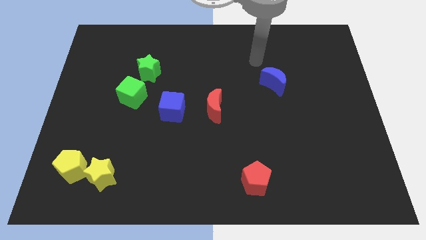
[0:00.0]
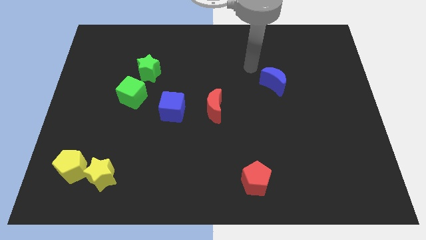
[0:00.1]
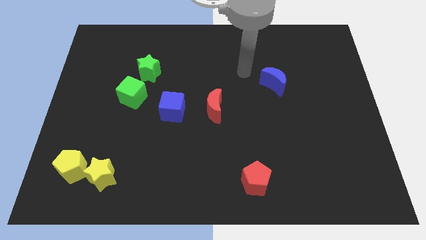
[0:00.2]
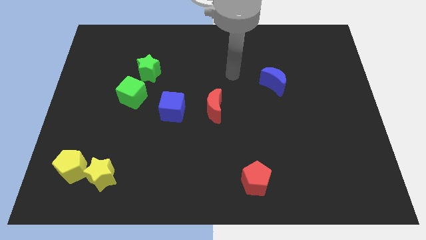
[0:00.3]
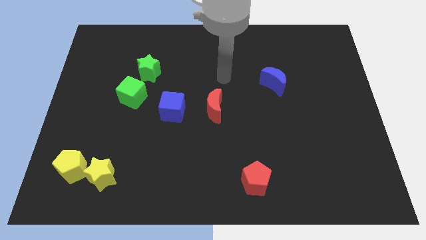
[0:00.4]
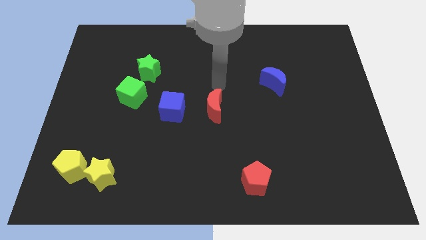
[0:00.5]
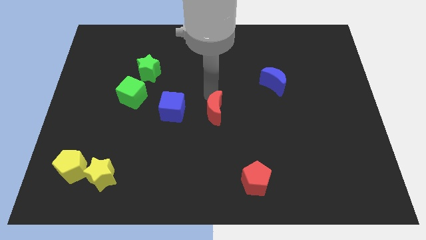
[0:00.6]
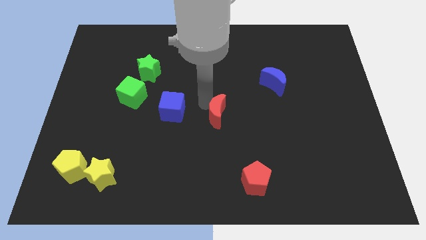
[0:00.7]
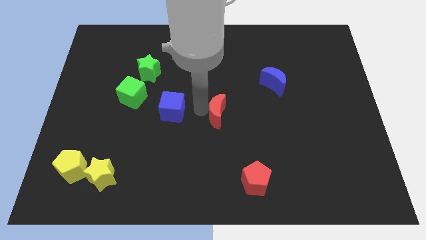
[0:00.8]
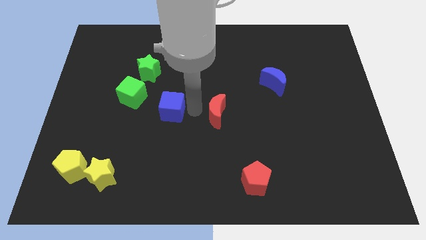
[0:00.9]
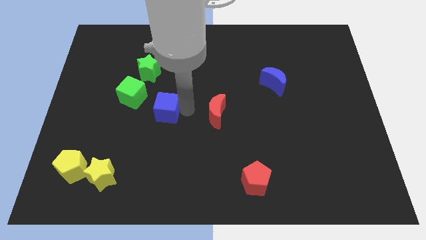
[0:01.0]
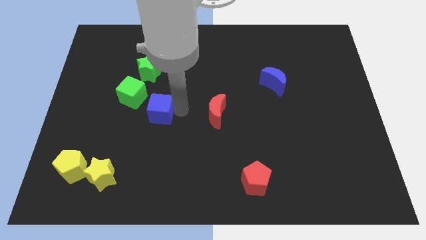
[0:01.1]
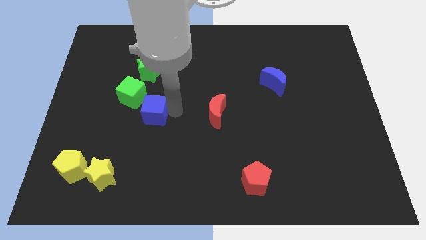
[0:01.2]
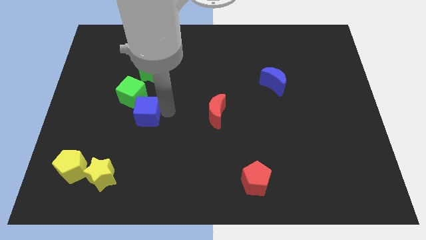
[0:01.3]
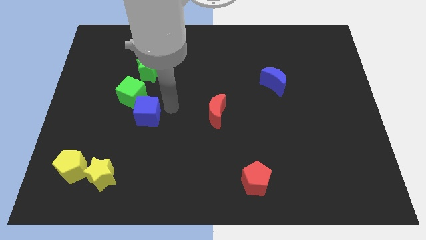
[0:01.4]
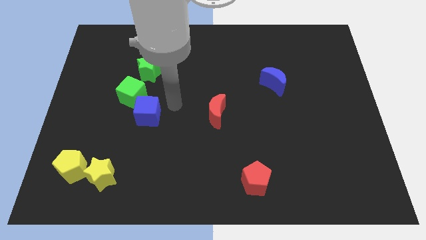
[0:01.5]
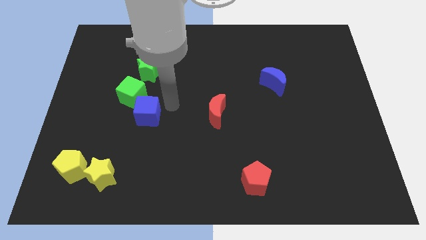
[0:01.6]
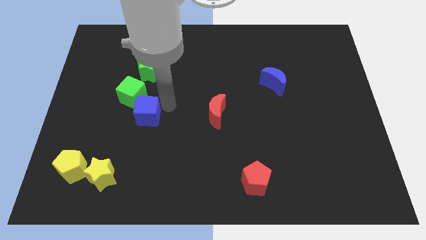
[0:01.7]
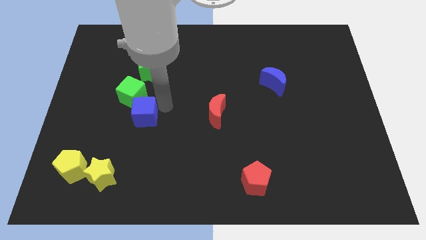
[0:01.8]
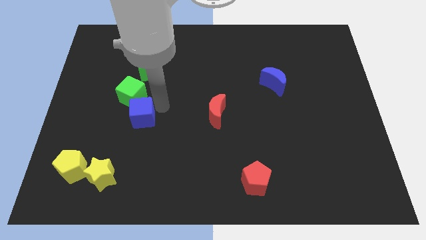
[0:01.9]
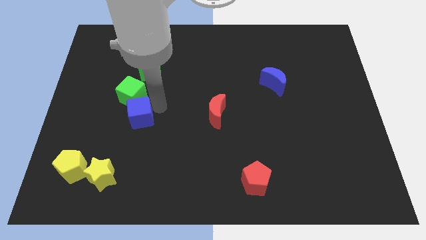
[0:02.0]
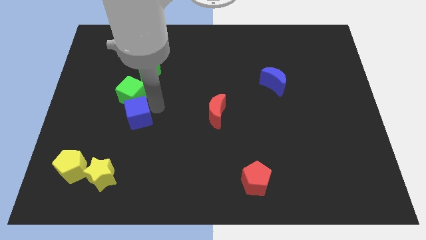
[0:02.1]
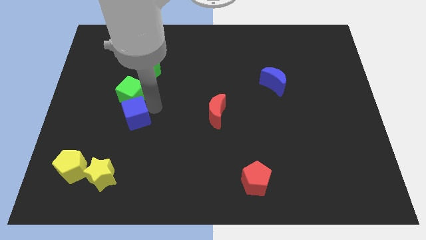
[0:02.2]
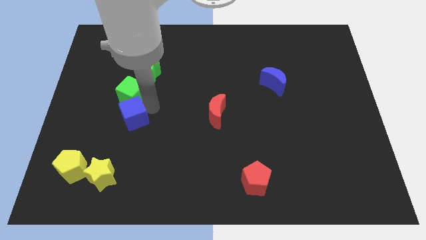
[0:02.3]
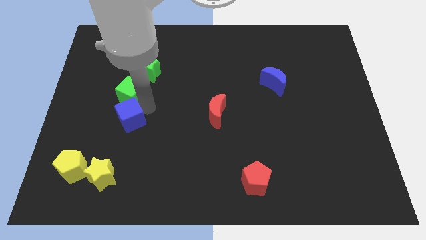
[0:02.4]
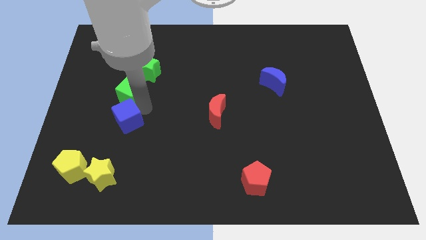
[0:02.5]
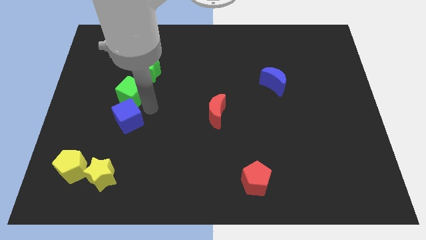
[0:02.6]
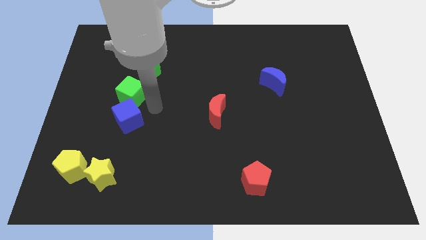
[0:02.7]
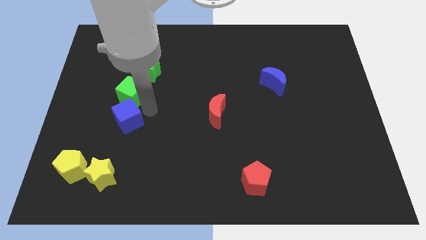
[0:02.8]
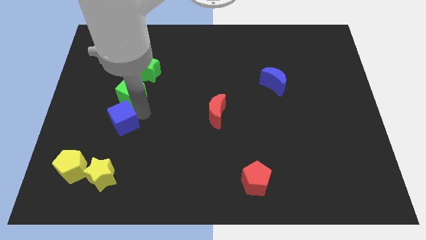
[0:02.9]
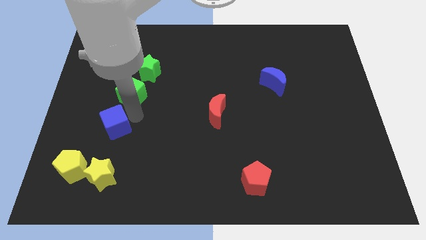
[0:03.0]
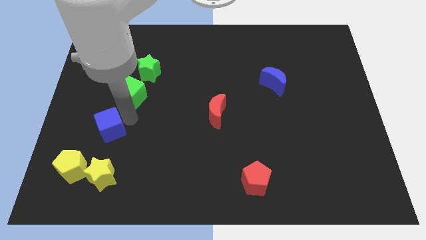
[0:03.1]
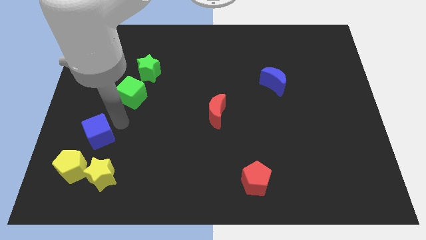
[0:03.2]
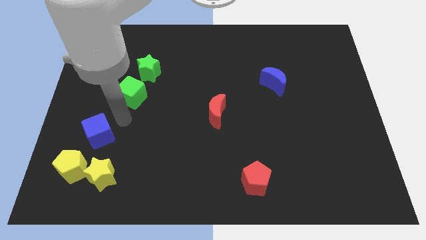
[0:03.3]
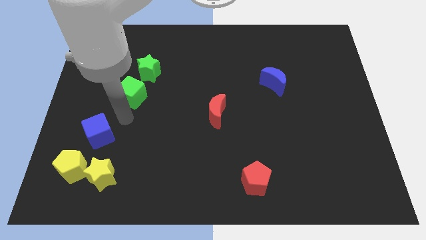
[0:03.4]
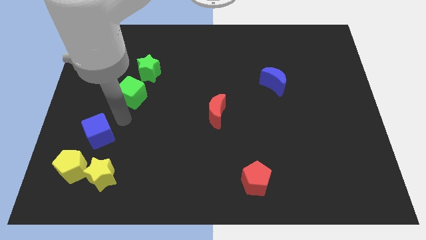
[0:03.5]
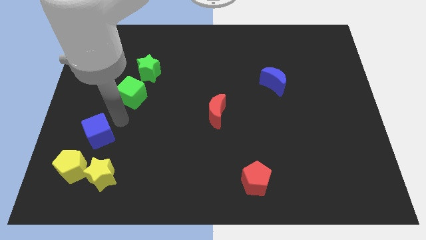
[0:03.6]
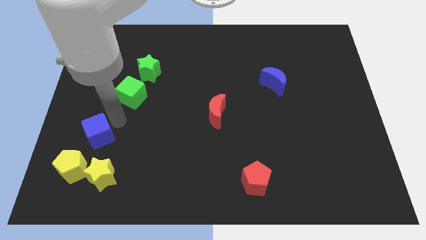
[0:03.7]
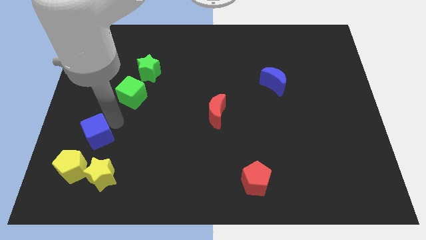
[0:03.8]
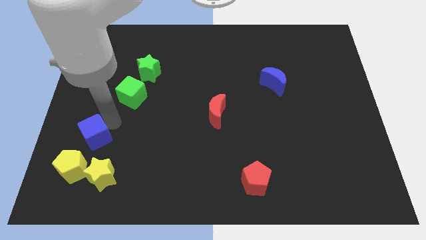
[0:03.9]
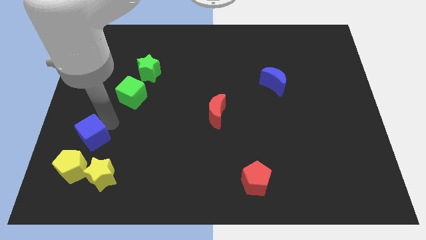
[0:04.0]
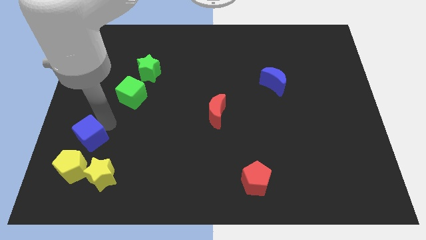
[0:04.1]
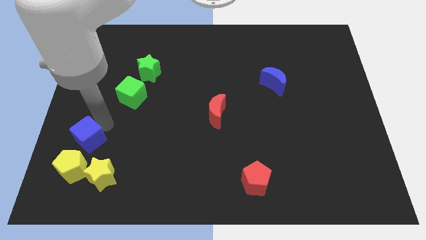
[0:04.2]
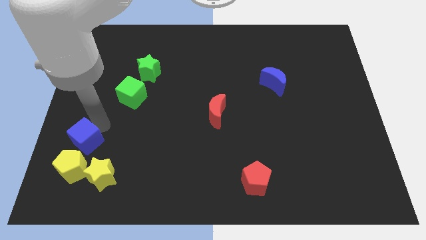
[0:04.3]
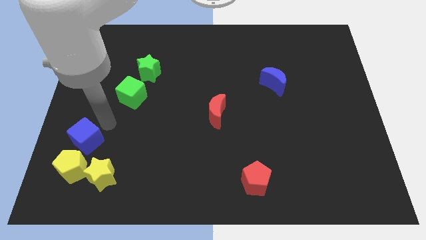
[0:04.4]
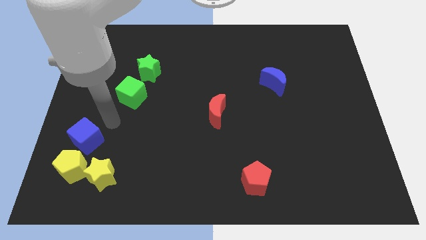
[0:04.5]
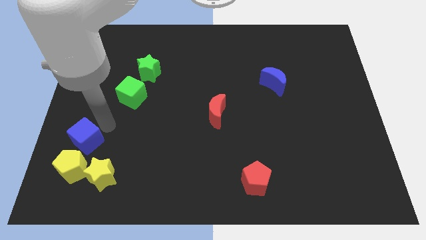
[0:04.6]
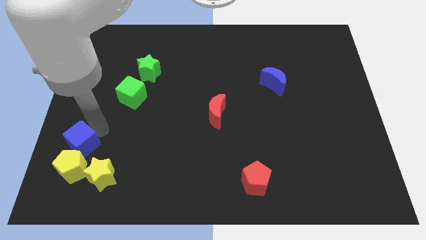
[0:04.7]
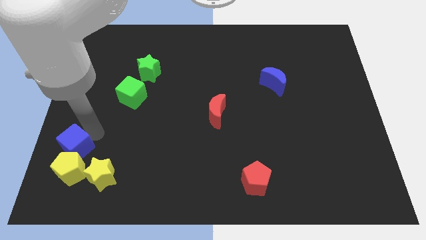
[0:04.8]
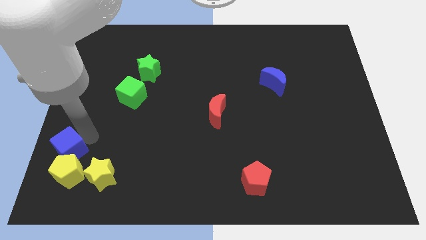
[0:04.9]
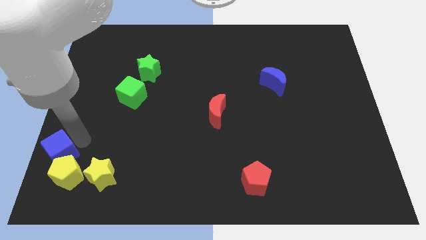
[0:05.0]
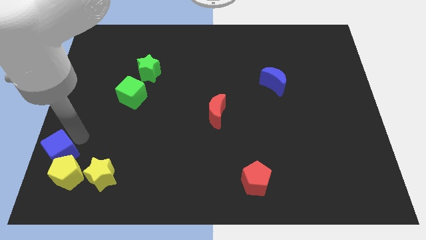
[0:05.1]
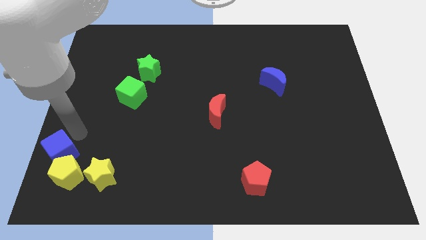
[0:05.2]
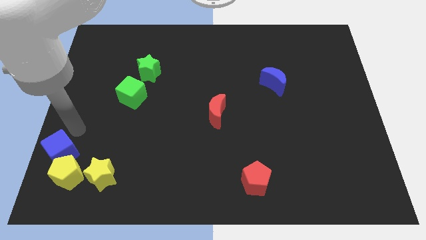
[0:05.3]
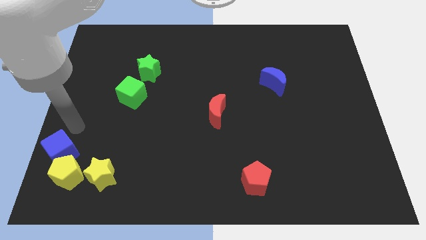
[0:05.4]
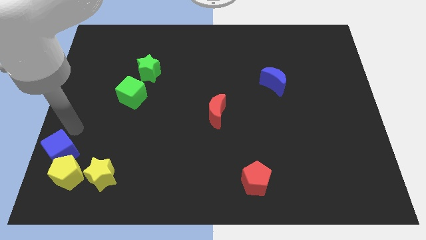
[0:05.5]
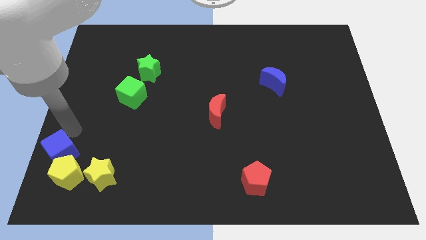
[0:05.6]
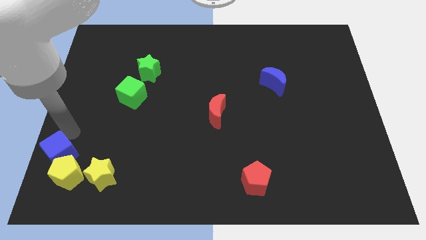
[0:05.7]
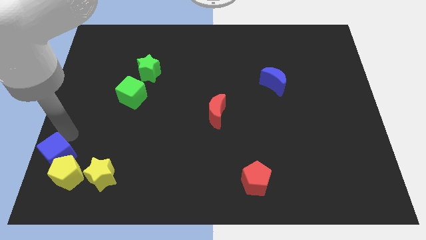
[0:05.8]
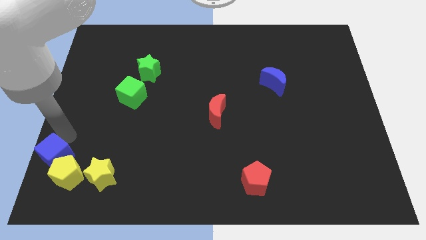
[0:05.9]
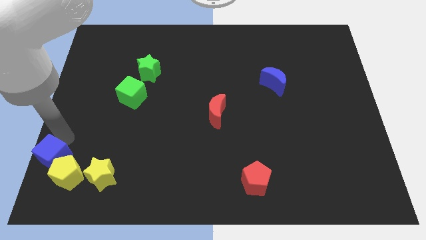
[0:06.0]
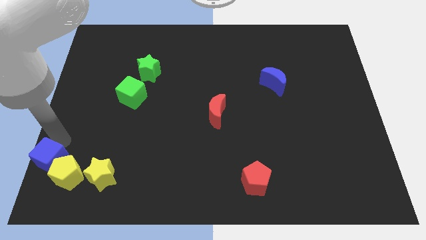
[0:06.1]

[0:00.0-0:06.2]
push the blue cube to the bottom left corner
